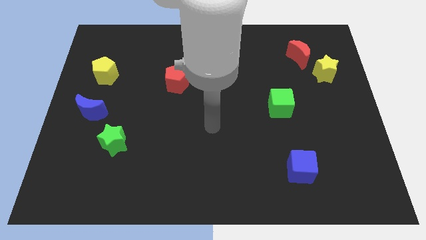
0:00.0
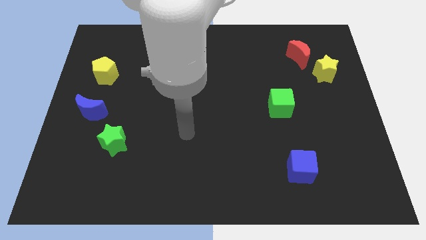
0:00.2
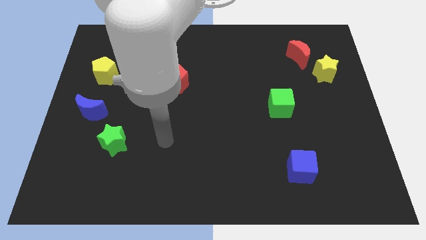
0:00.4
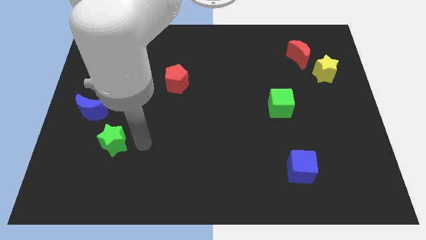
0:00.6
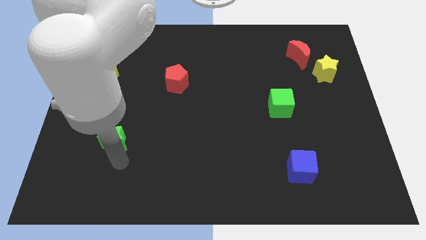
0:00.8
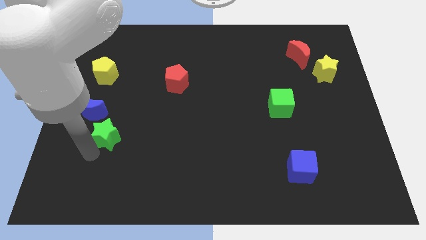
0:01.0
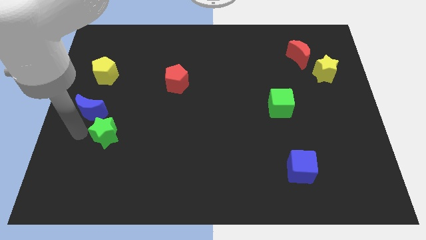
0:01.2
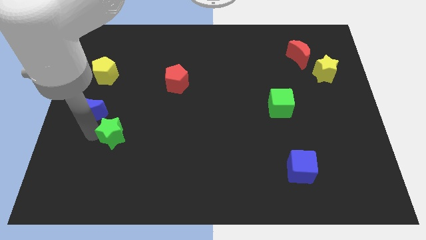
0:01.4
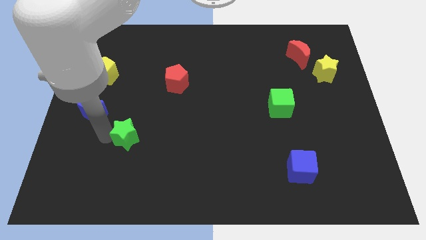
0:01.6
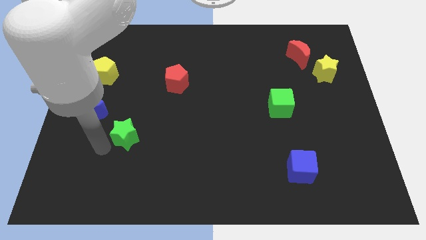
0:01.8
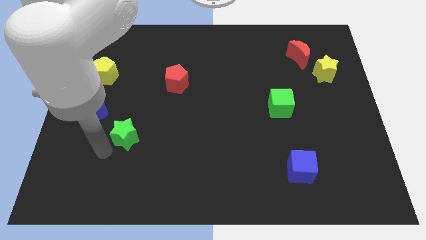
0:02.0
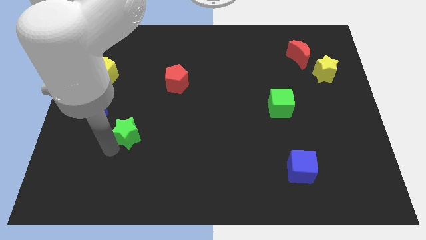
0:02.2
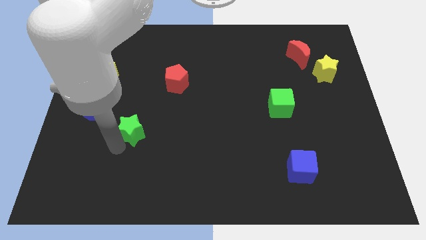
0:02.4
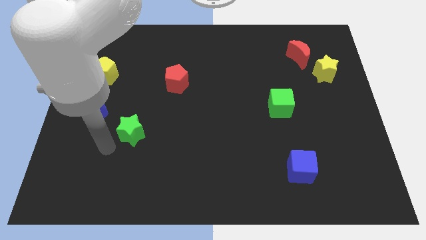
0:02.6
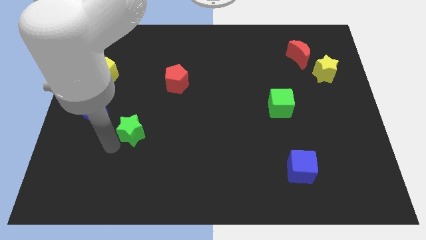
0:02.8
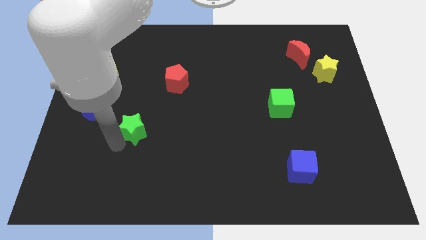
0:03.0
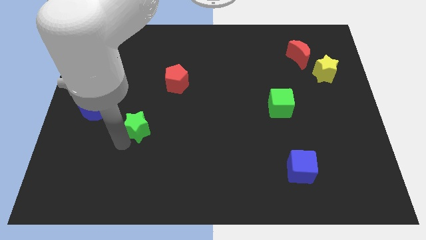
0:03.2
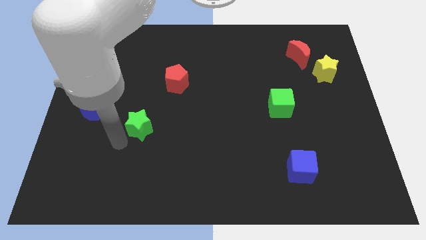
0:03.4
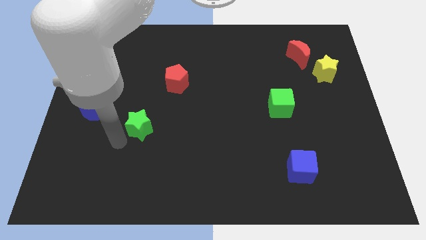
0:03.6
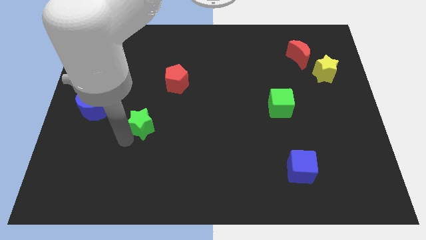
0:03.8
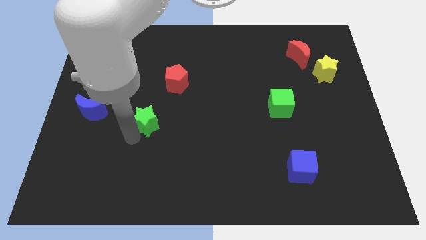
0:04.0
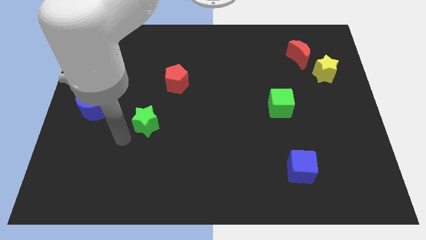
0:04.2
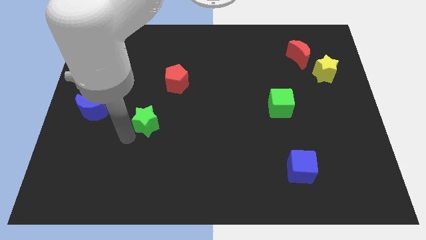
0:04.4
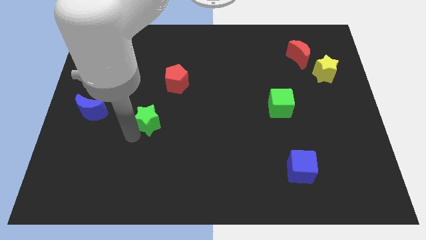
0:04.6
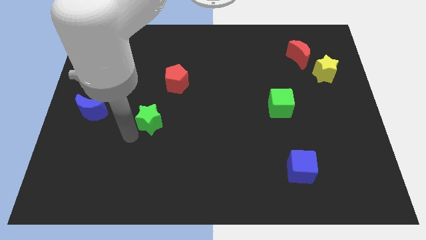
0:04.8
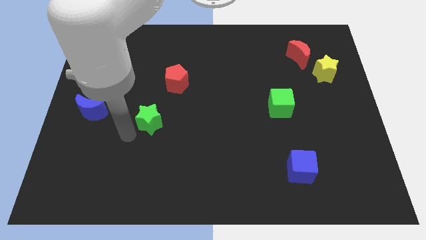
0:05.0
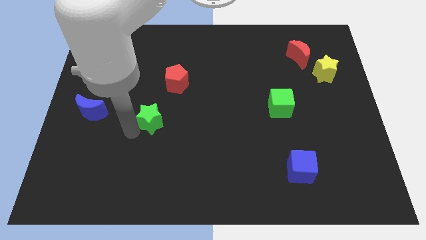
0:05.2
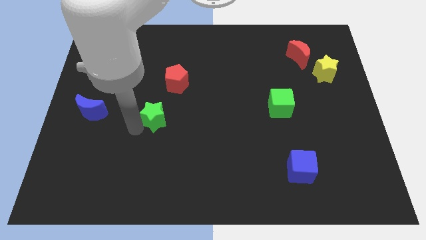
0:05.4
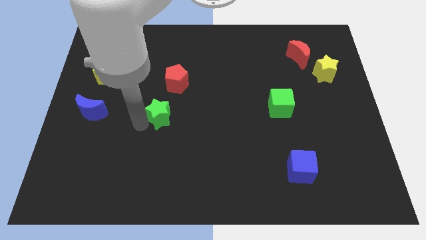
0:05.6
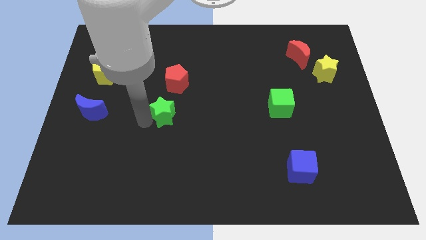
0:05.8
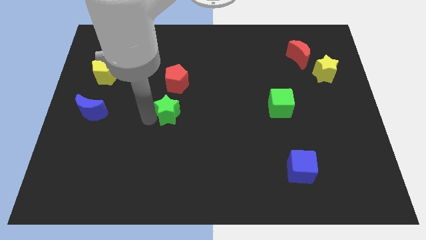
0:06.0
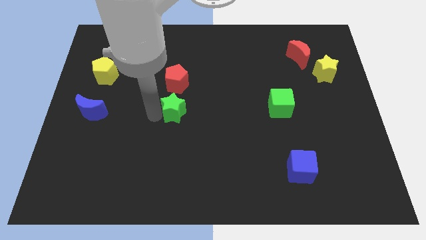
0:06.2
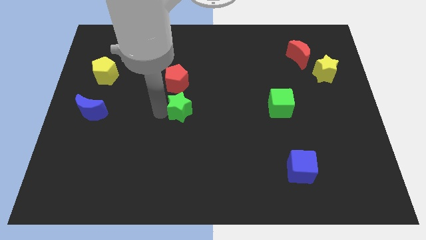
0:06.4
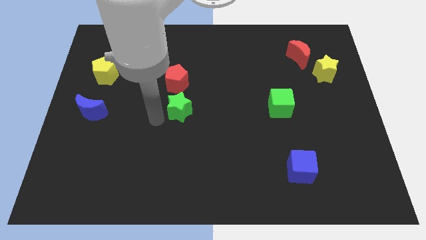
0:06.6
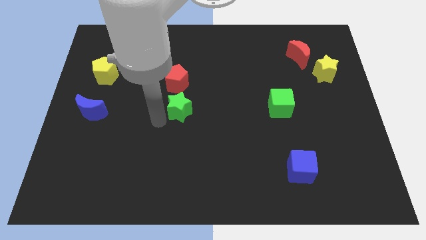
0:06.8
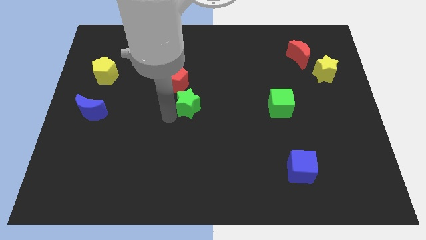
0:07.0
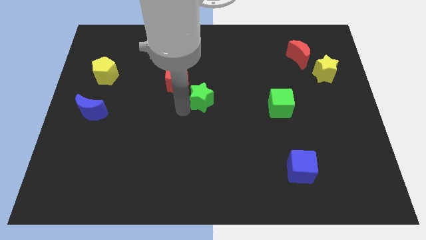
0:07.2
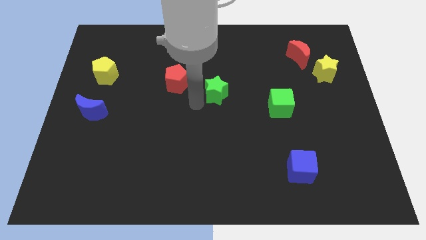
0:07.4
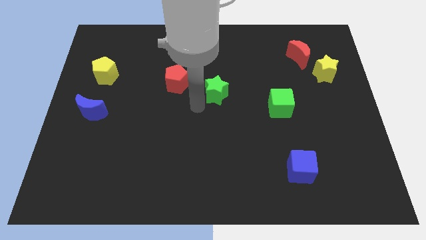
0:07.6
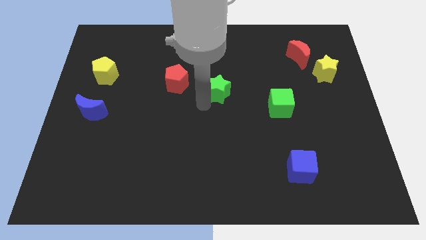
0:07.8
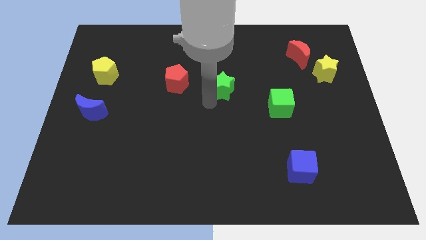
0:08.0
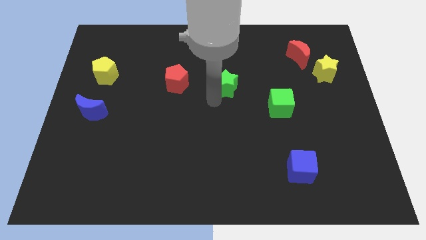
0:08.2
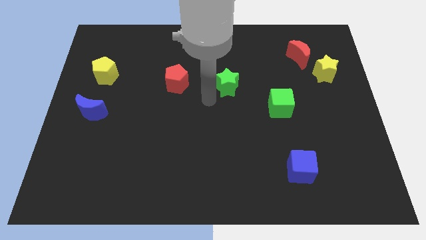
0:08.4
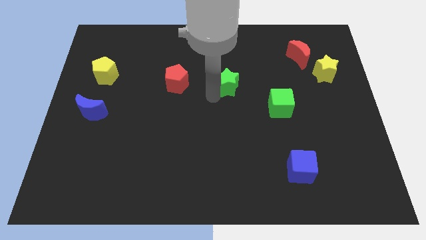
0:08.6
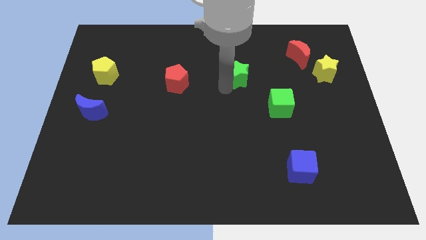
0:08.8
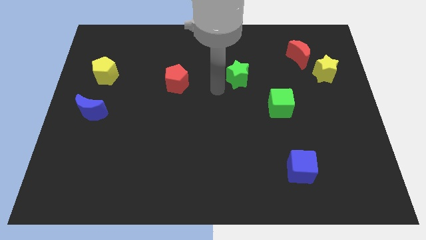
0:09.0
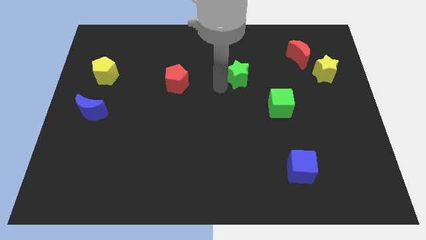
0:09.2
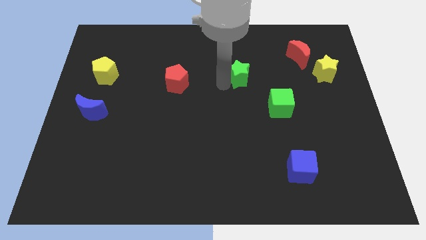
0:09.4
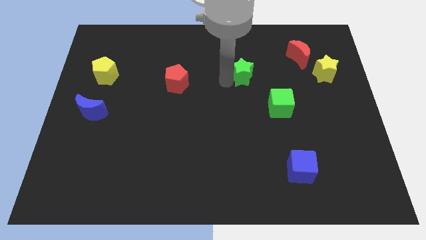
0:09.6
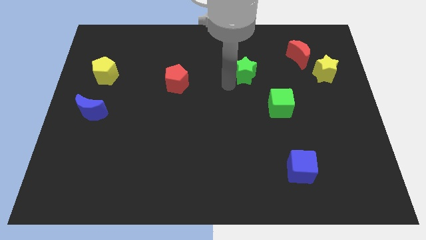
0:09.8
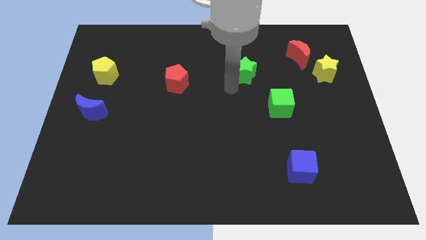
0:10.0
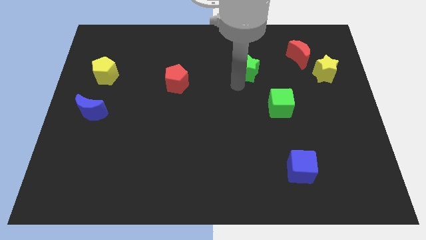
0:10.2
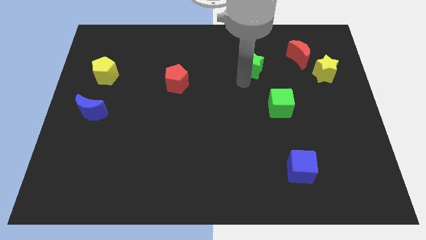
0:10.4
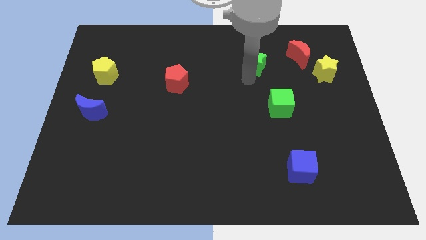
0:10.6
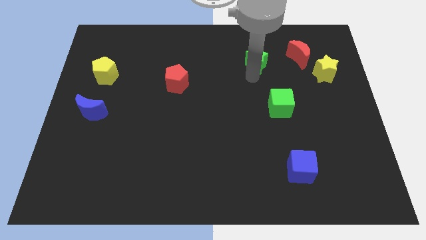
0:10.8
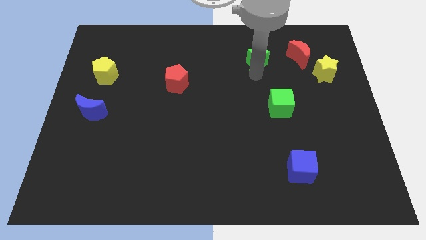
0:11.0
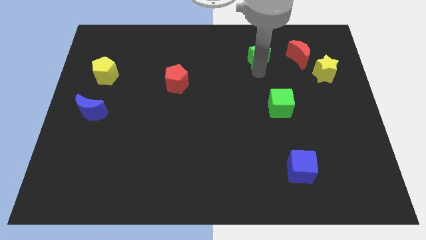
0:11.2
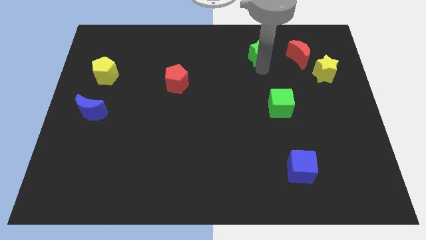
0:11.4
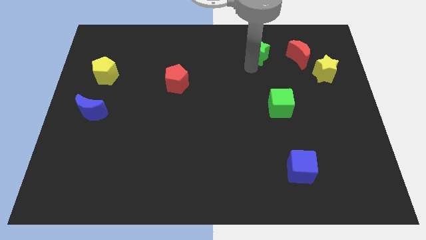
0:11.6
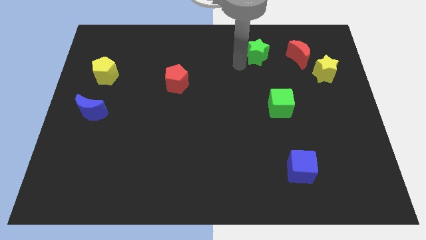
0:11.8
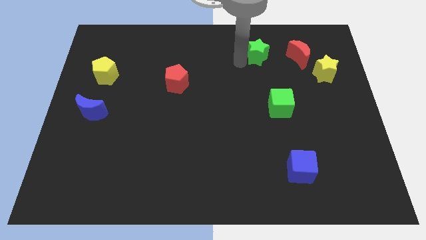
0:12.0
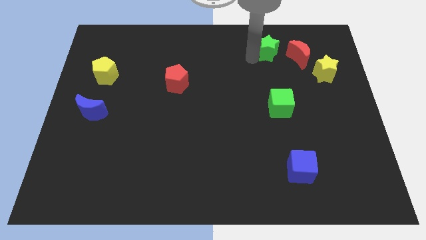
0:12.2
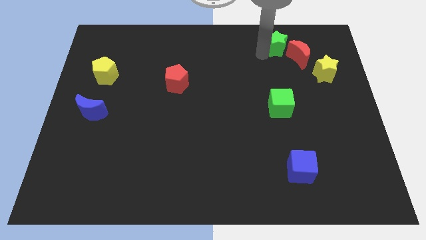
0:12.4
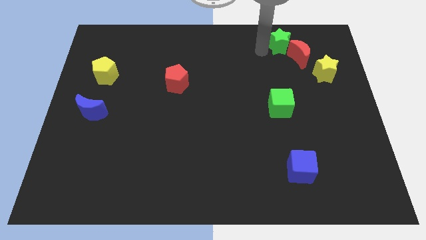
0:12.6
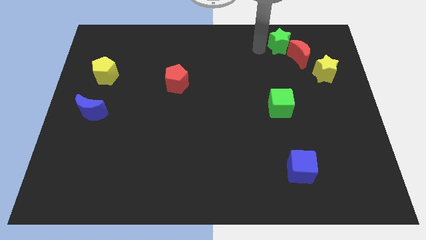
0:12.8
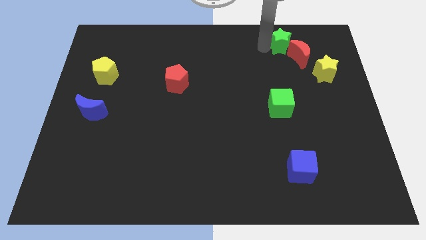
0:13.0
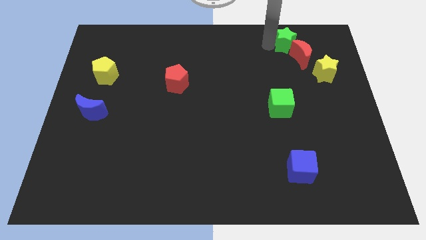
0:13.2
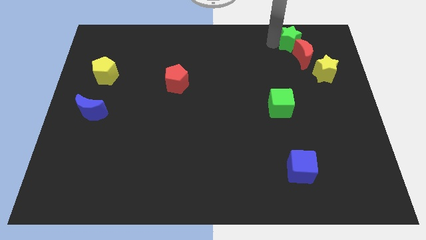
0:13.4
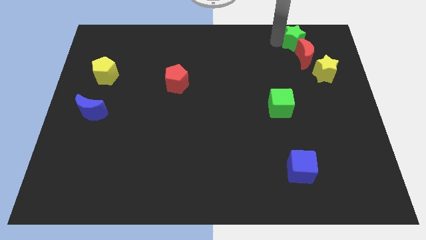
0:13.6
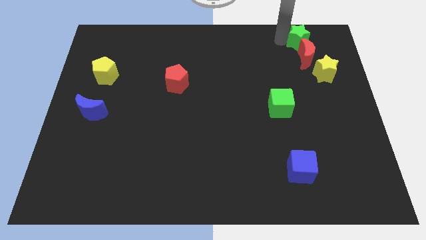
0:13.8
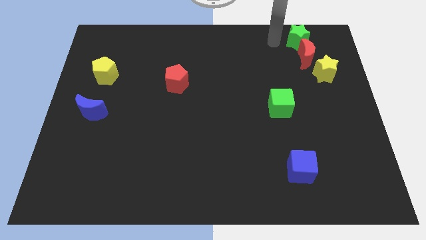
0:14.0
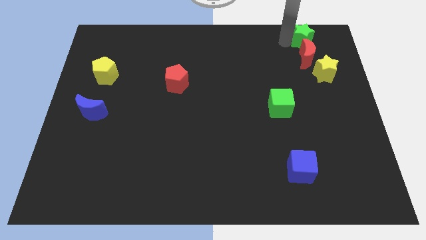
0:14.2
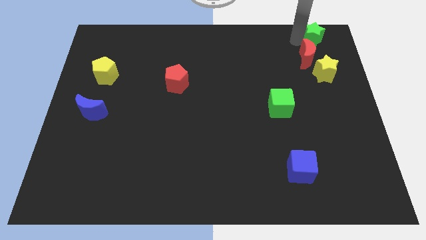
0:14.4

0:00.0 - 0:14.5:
slide the green star to the upper right corner
